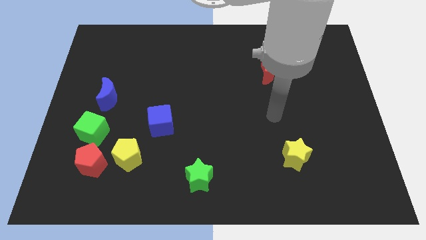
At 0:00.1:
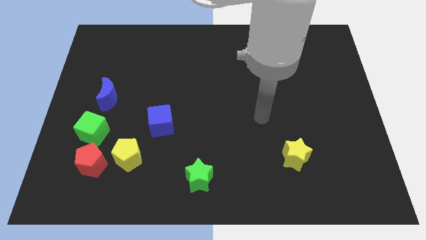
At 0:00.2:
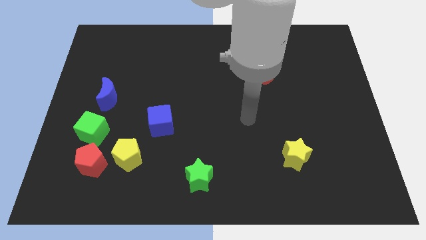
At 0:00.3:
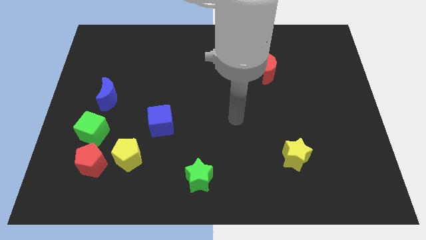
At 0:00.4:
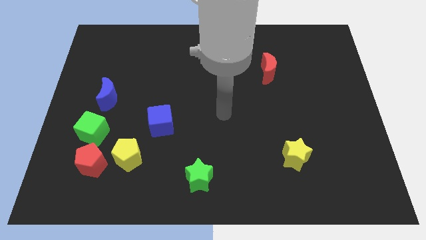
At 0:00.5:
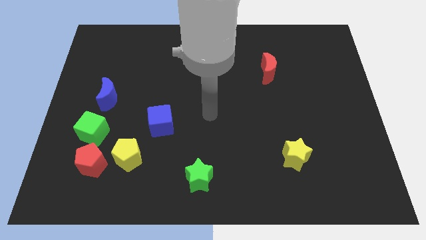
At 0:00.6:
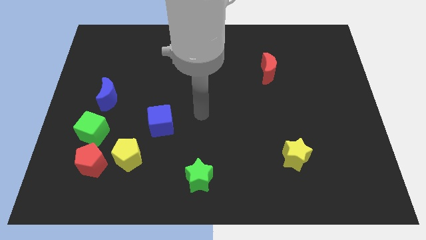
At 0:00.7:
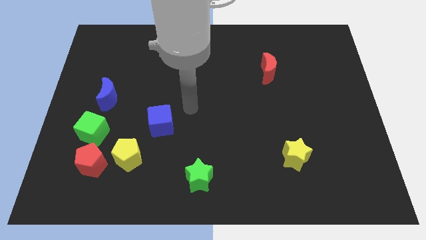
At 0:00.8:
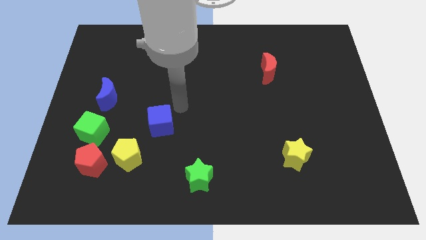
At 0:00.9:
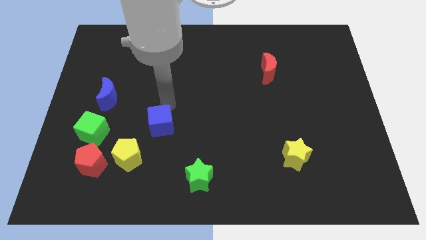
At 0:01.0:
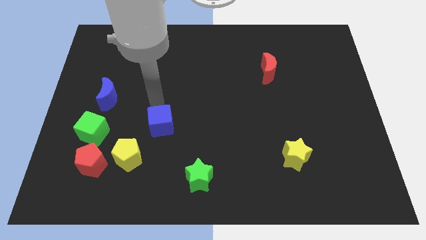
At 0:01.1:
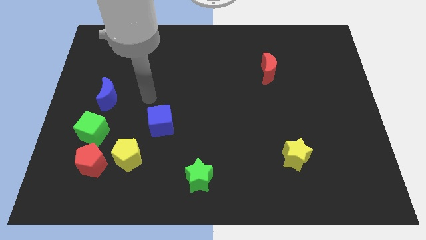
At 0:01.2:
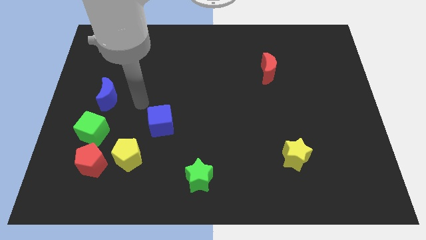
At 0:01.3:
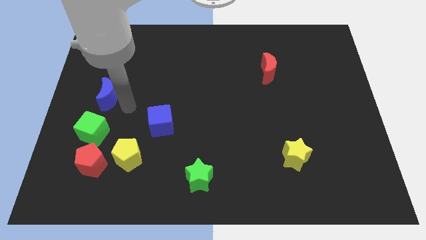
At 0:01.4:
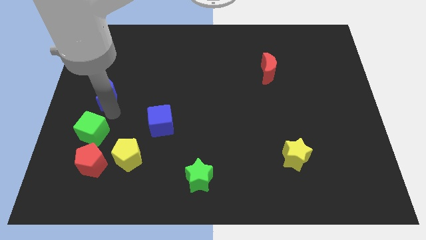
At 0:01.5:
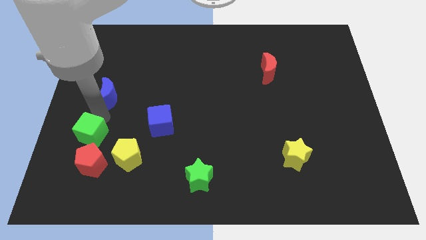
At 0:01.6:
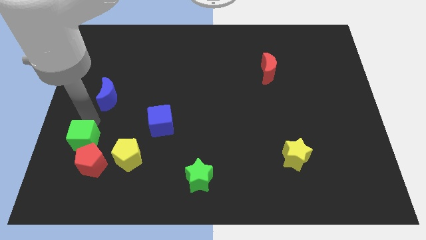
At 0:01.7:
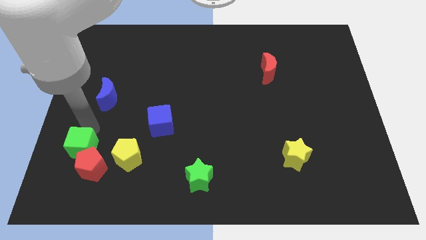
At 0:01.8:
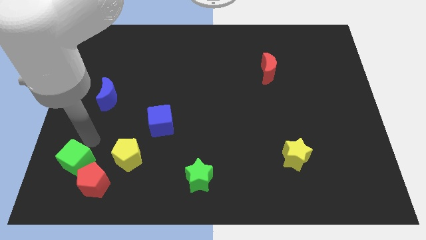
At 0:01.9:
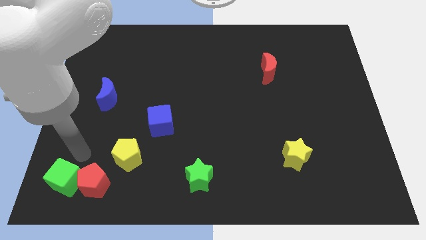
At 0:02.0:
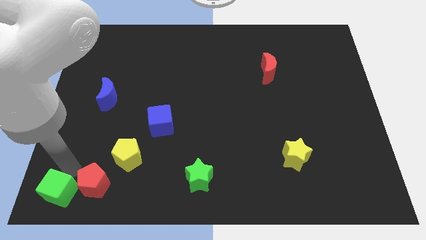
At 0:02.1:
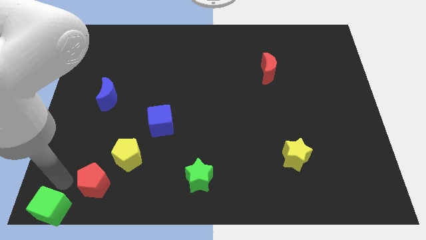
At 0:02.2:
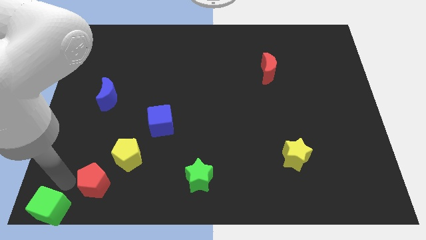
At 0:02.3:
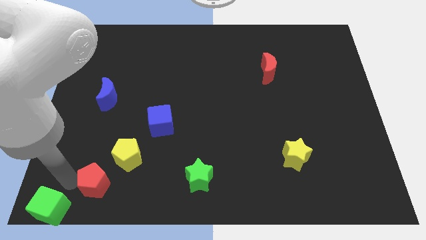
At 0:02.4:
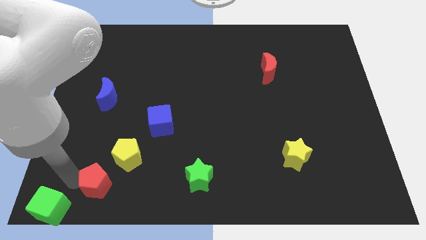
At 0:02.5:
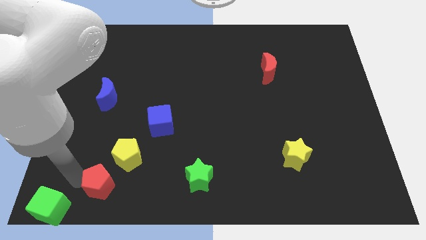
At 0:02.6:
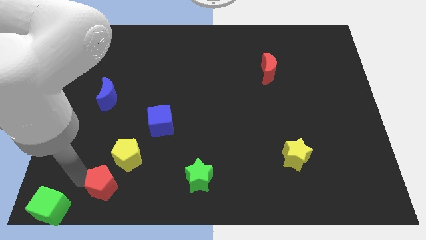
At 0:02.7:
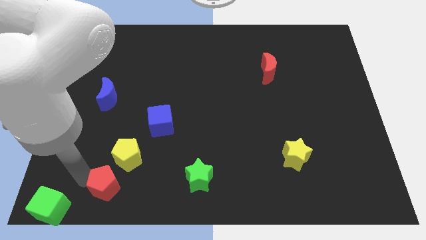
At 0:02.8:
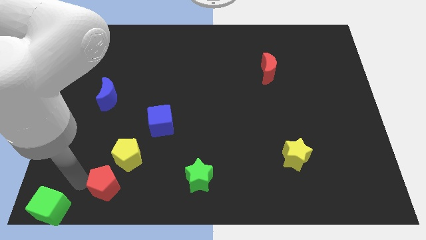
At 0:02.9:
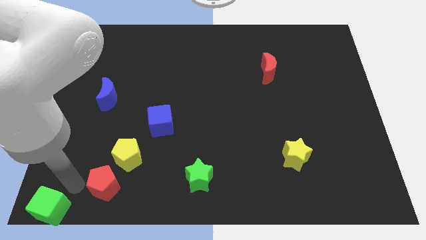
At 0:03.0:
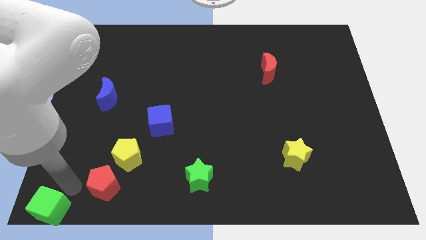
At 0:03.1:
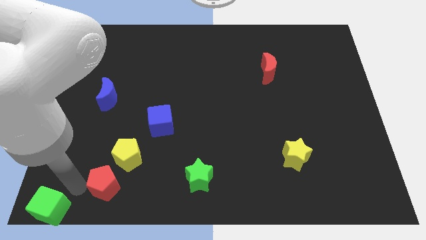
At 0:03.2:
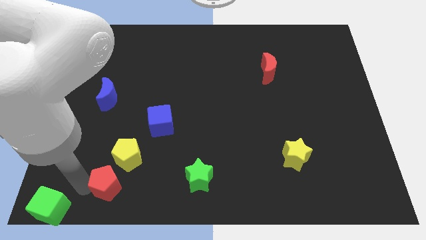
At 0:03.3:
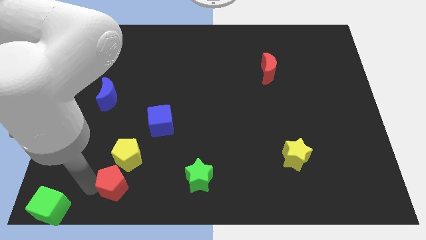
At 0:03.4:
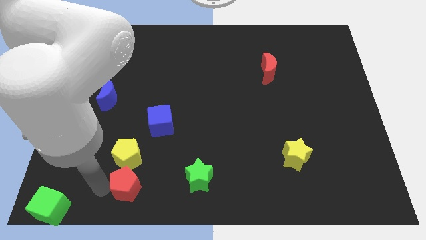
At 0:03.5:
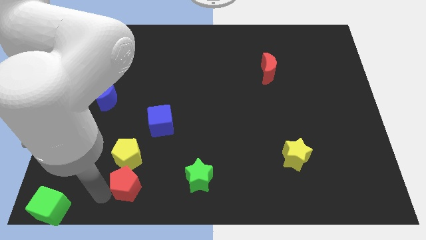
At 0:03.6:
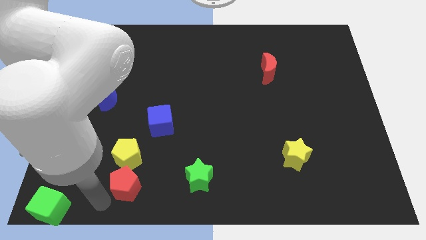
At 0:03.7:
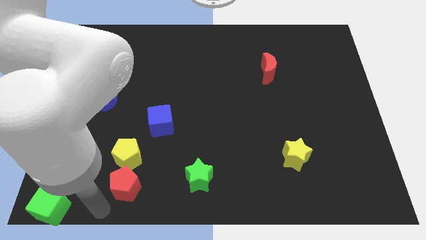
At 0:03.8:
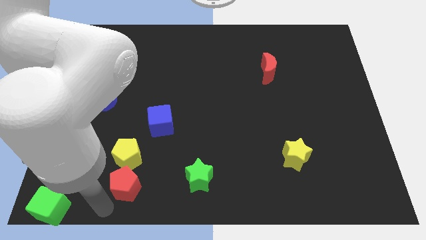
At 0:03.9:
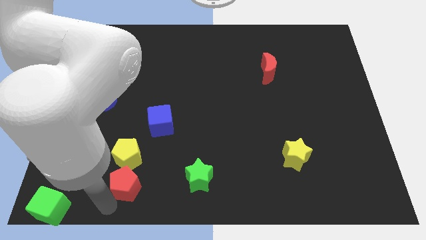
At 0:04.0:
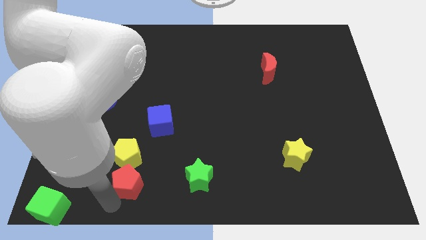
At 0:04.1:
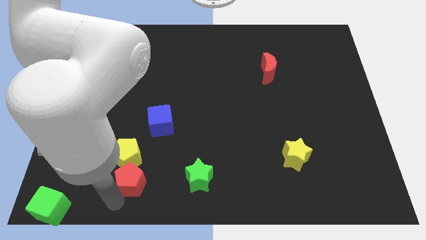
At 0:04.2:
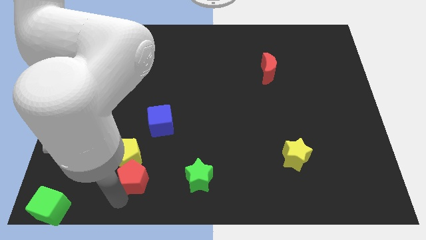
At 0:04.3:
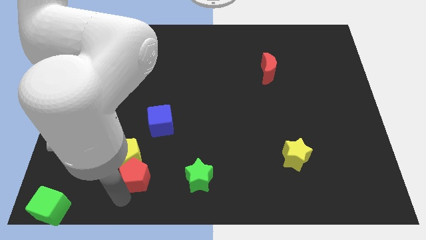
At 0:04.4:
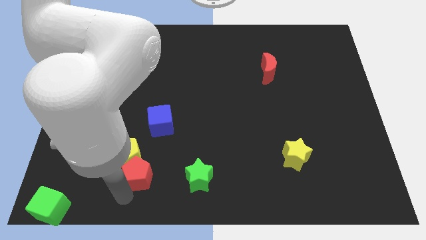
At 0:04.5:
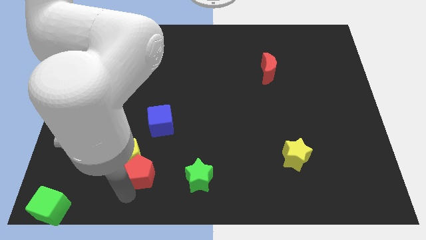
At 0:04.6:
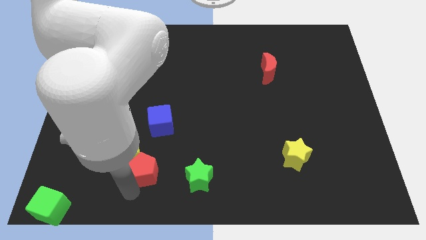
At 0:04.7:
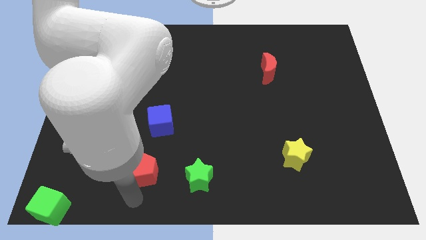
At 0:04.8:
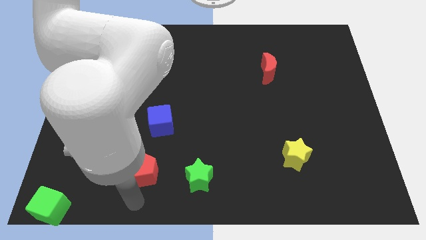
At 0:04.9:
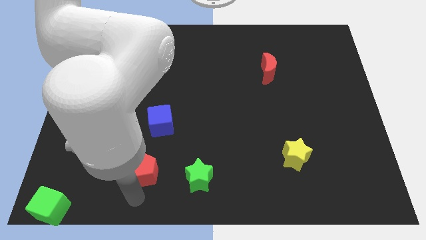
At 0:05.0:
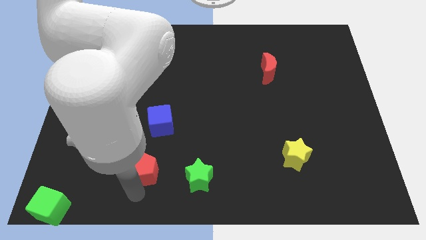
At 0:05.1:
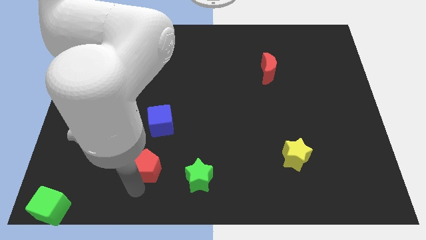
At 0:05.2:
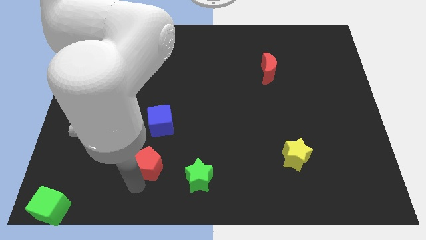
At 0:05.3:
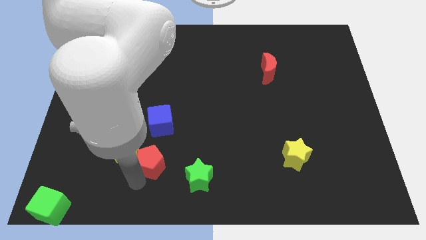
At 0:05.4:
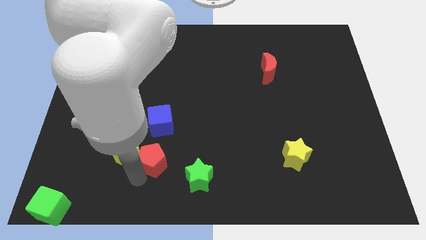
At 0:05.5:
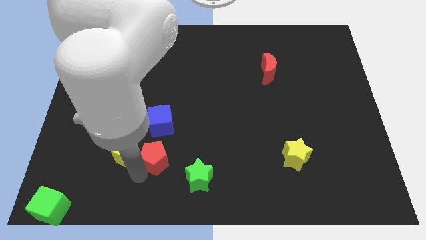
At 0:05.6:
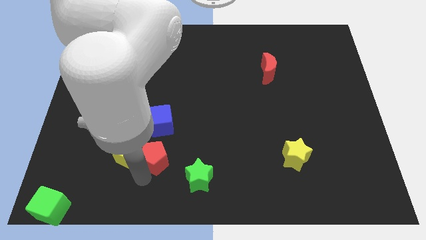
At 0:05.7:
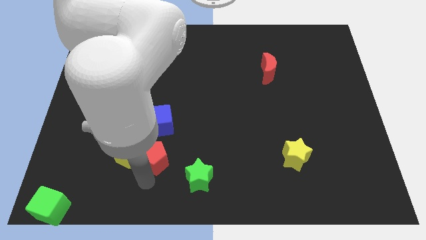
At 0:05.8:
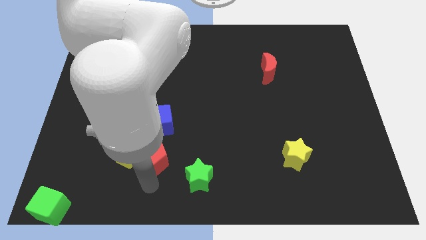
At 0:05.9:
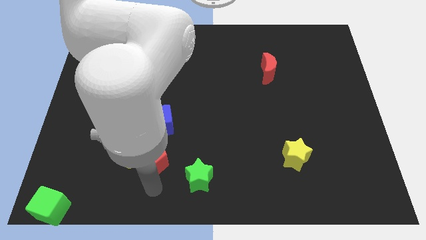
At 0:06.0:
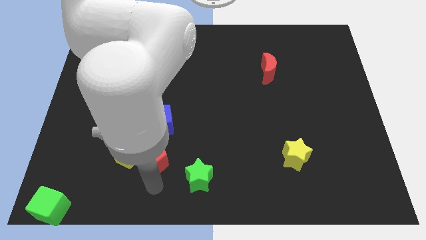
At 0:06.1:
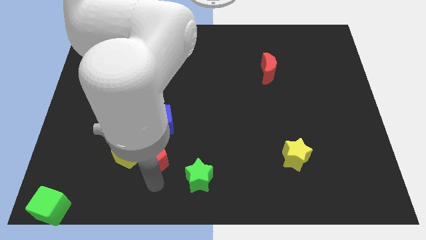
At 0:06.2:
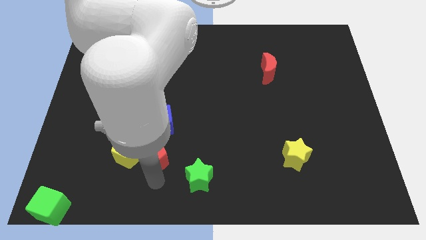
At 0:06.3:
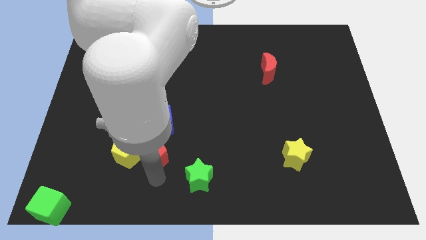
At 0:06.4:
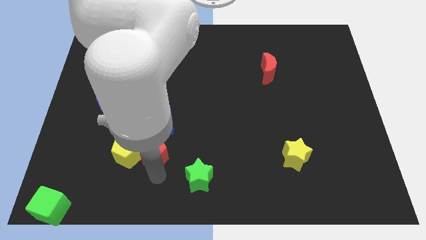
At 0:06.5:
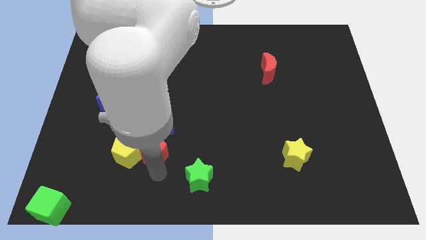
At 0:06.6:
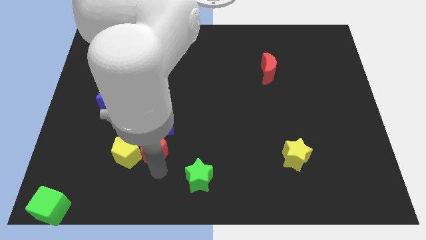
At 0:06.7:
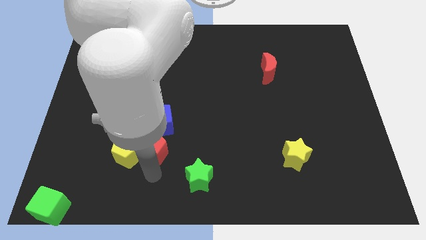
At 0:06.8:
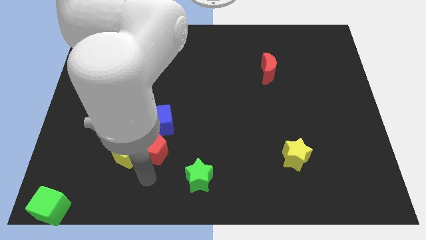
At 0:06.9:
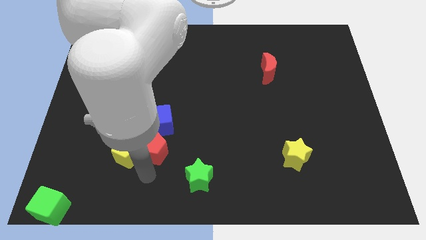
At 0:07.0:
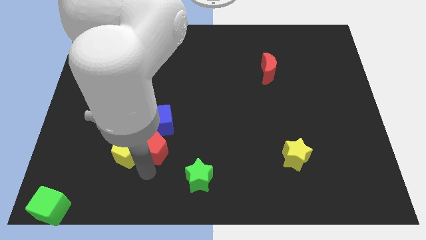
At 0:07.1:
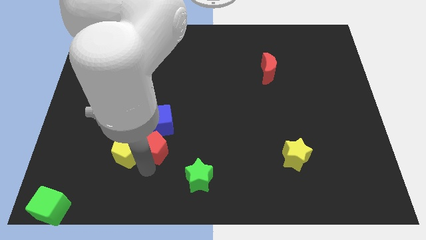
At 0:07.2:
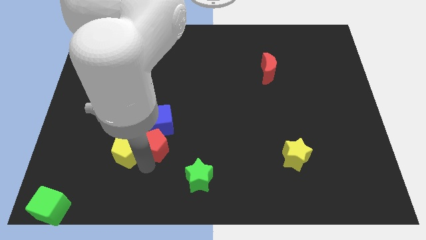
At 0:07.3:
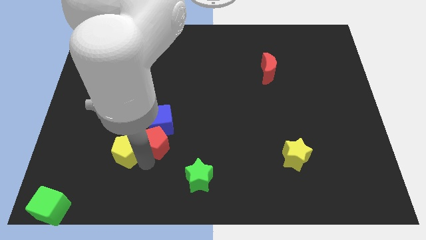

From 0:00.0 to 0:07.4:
move the red pentagon next to the blue cube

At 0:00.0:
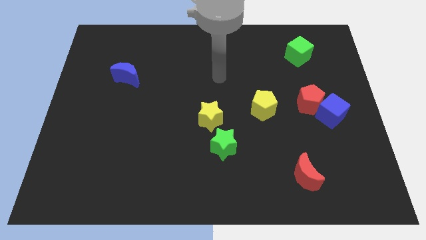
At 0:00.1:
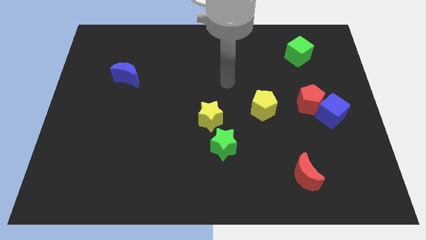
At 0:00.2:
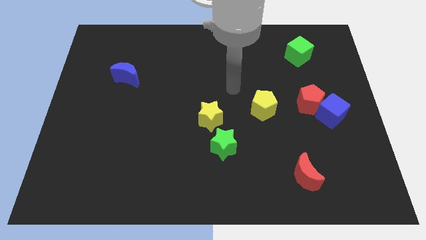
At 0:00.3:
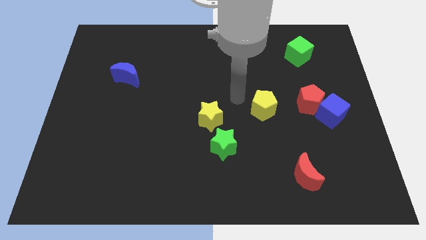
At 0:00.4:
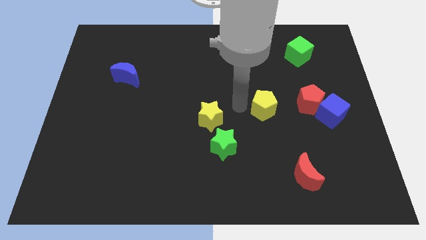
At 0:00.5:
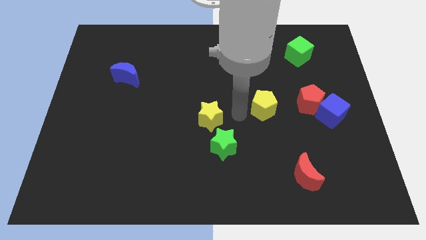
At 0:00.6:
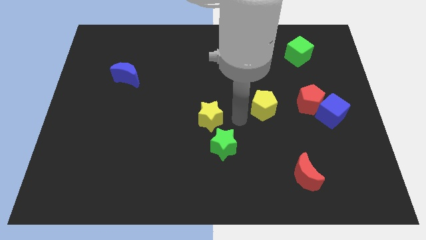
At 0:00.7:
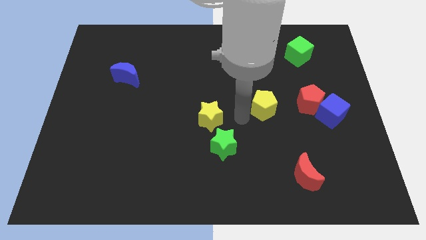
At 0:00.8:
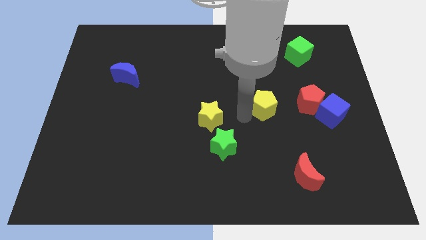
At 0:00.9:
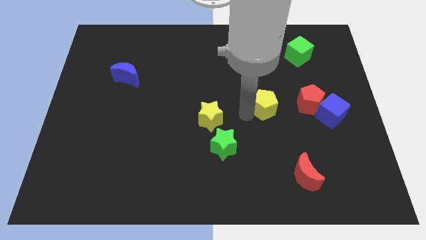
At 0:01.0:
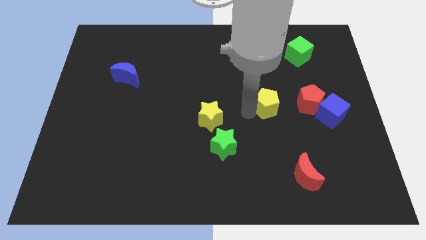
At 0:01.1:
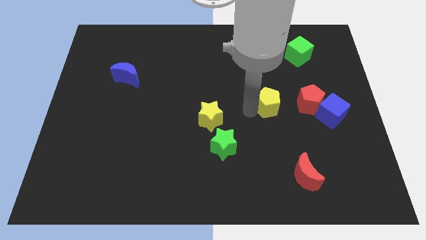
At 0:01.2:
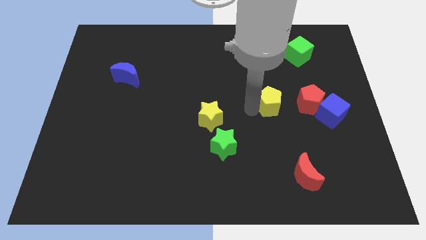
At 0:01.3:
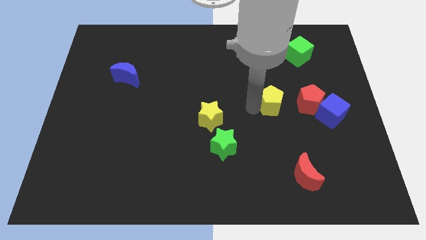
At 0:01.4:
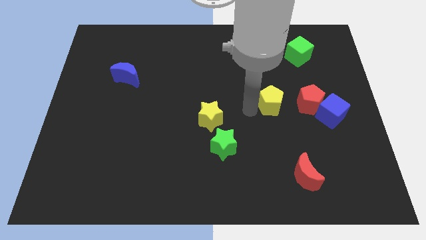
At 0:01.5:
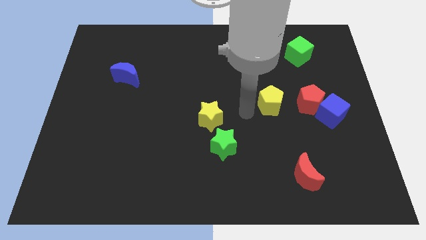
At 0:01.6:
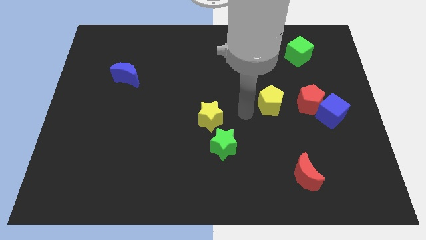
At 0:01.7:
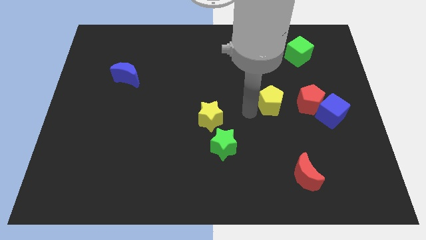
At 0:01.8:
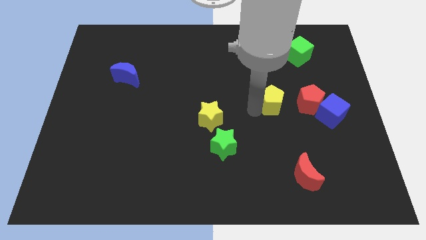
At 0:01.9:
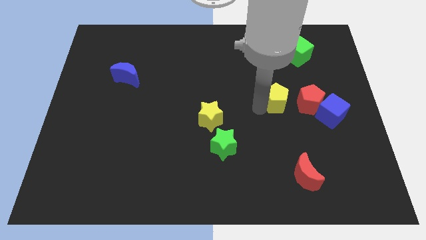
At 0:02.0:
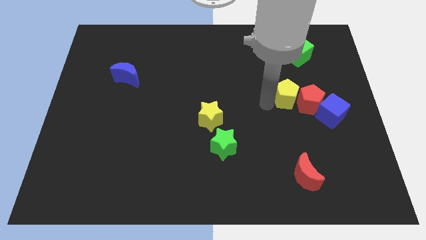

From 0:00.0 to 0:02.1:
slide the yellow pentagon towards the red pentagon
